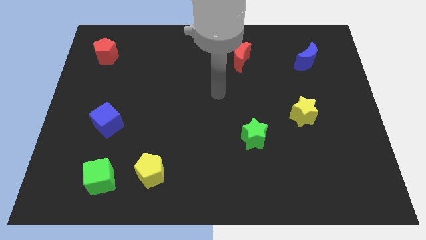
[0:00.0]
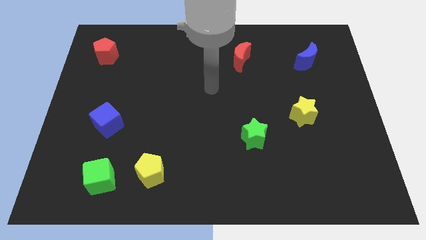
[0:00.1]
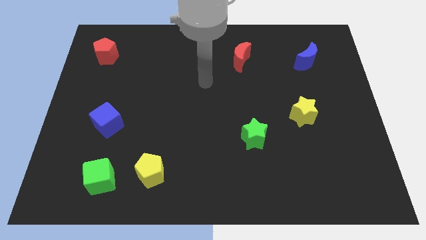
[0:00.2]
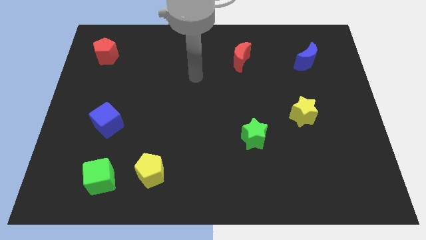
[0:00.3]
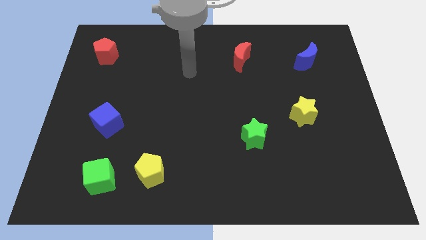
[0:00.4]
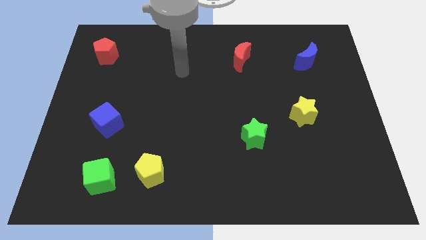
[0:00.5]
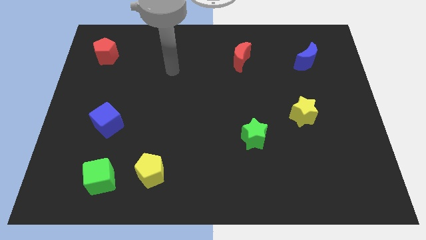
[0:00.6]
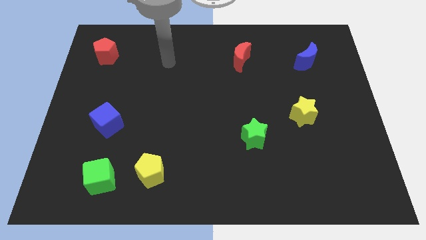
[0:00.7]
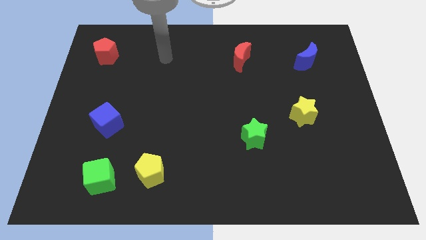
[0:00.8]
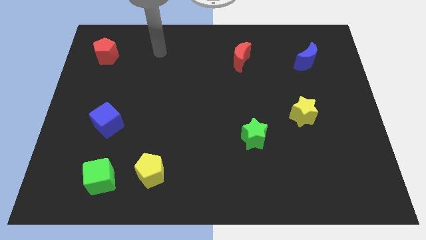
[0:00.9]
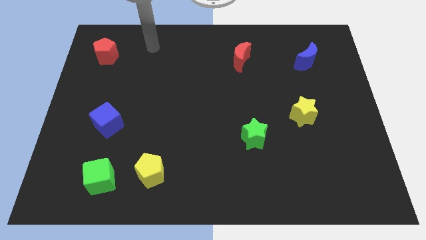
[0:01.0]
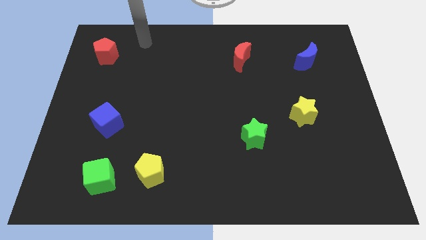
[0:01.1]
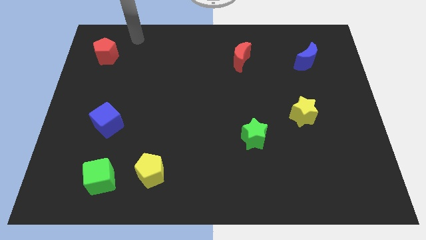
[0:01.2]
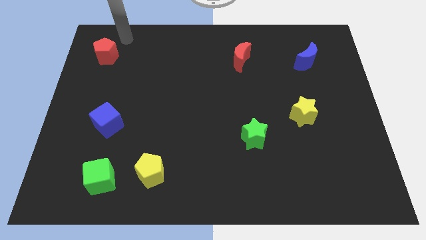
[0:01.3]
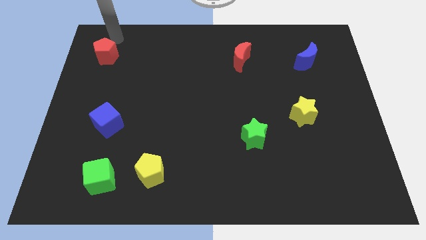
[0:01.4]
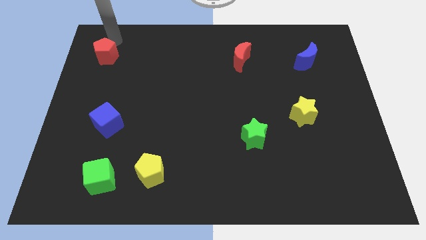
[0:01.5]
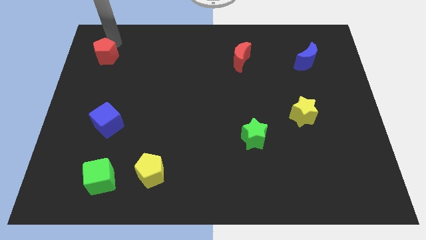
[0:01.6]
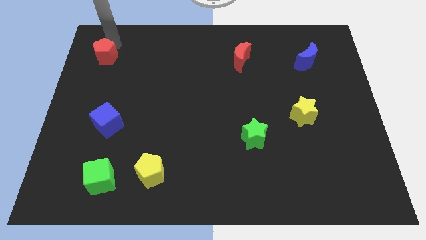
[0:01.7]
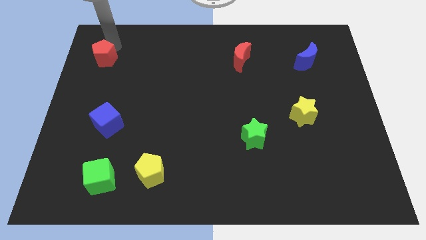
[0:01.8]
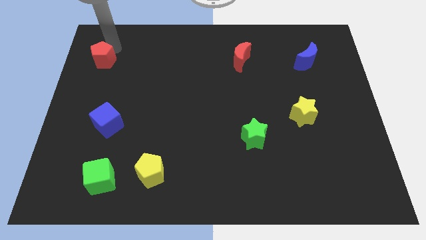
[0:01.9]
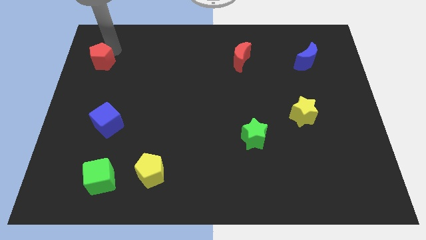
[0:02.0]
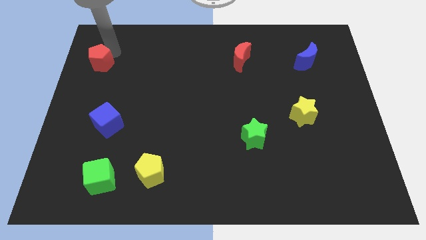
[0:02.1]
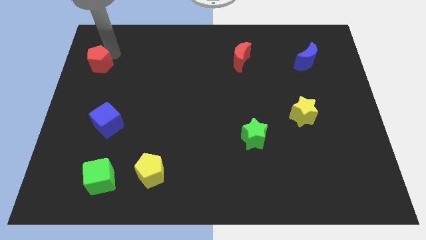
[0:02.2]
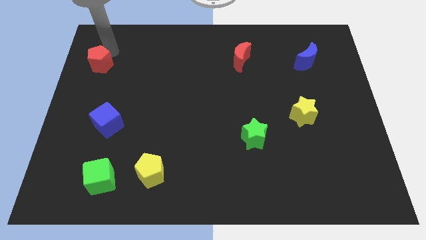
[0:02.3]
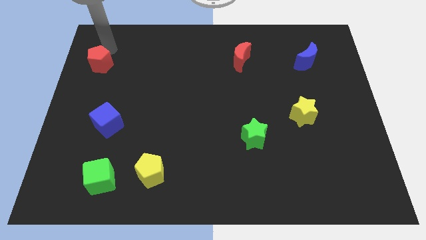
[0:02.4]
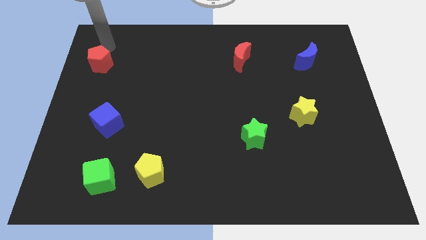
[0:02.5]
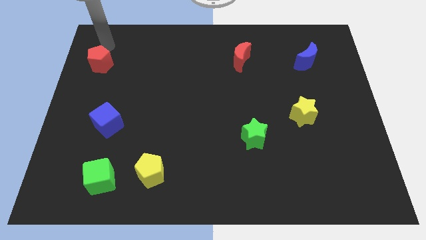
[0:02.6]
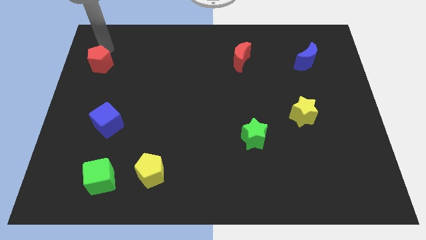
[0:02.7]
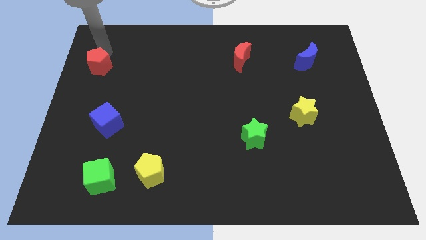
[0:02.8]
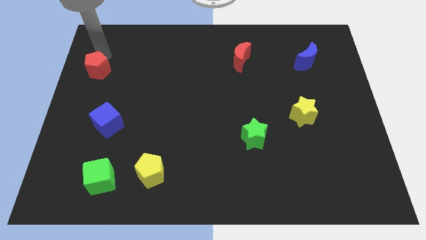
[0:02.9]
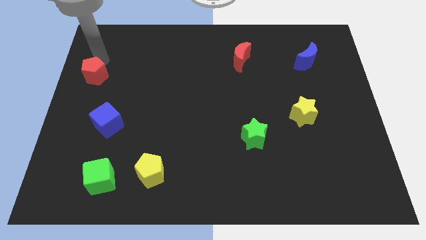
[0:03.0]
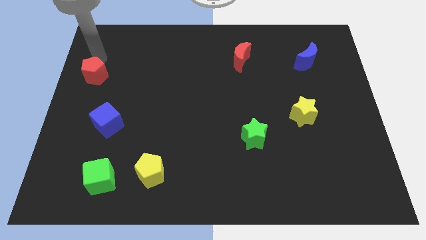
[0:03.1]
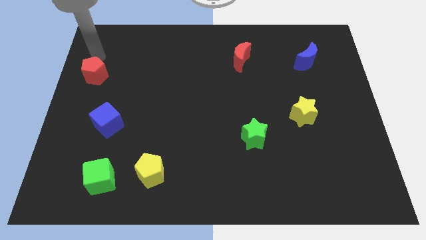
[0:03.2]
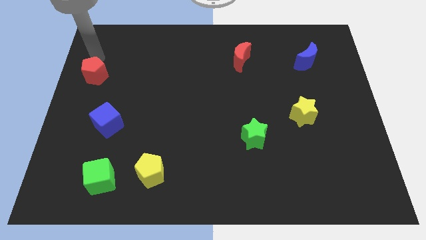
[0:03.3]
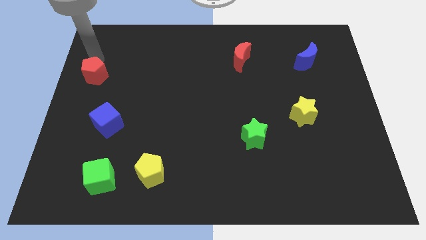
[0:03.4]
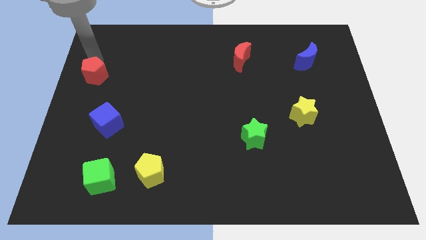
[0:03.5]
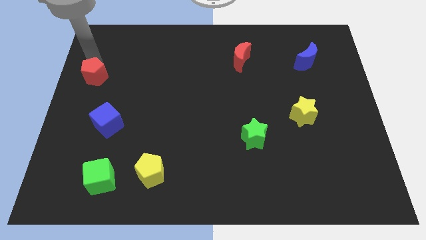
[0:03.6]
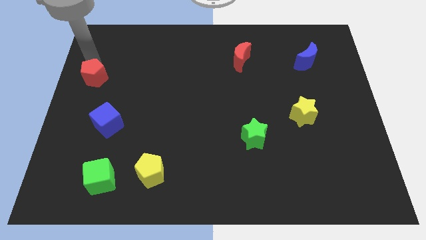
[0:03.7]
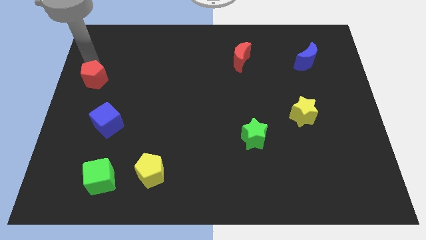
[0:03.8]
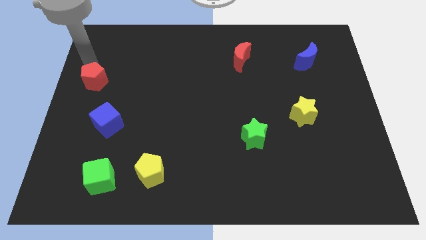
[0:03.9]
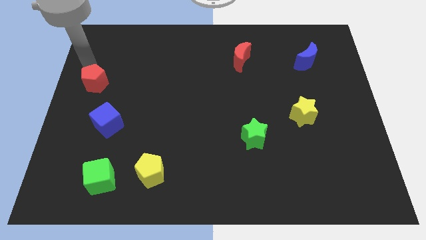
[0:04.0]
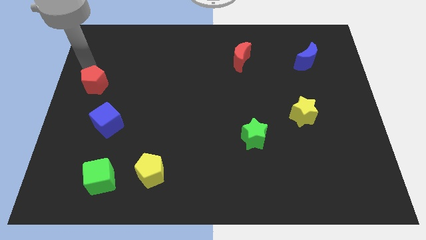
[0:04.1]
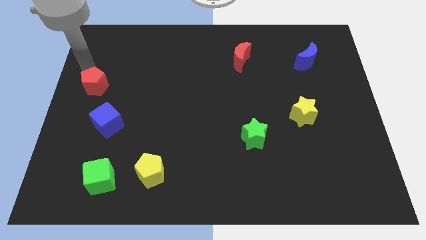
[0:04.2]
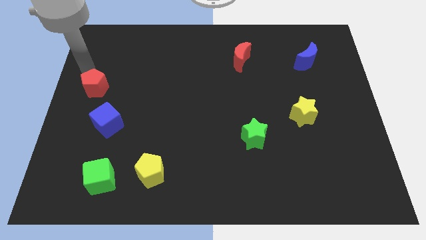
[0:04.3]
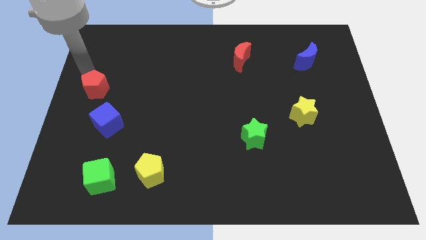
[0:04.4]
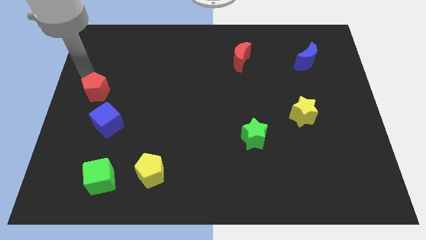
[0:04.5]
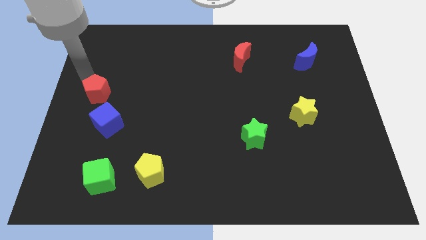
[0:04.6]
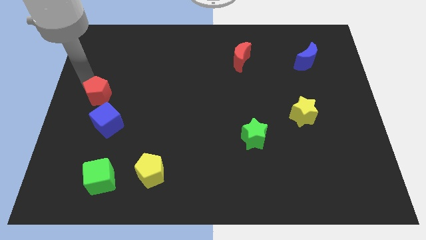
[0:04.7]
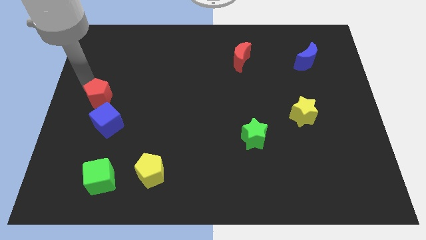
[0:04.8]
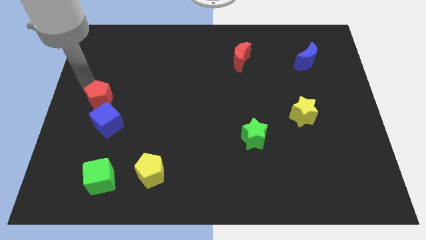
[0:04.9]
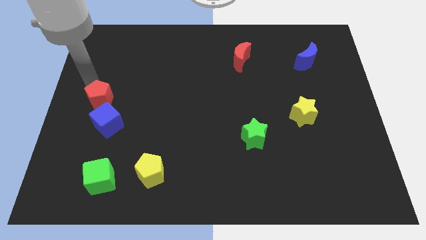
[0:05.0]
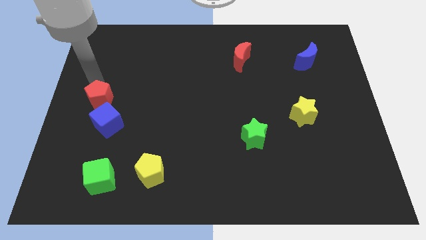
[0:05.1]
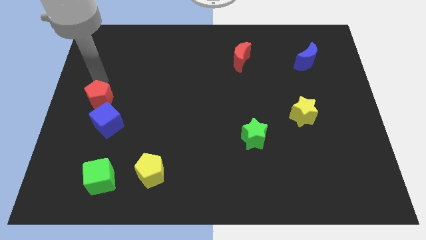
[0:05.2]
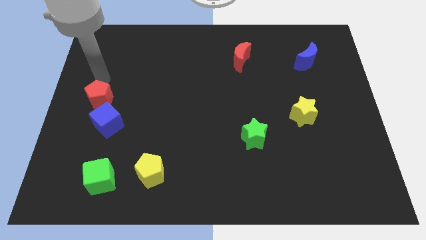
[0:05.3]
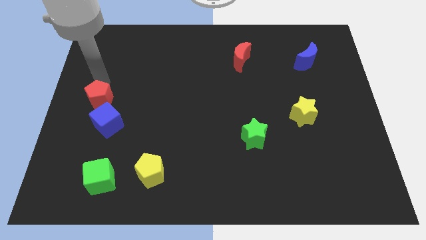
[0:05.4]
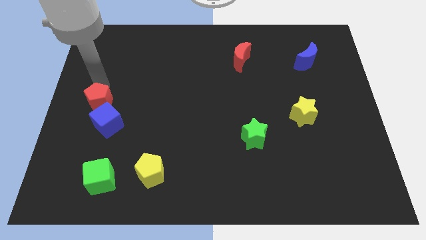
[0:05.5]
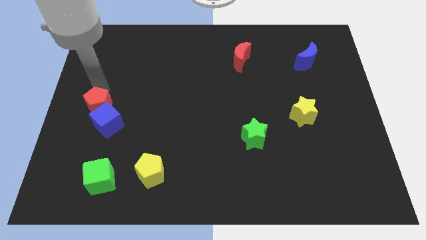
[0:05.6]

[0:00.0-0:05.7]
move the red pentagon to the blue cube
